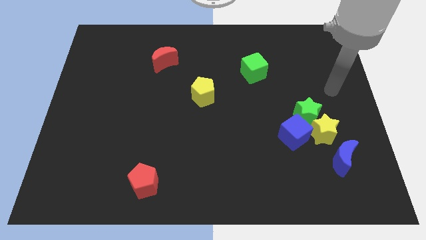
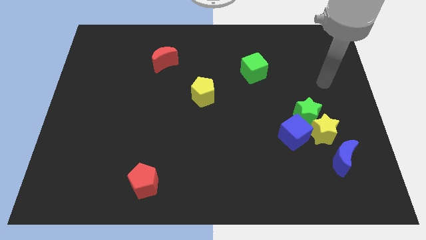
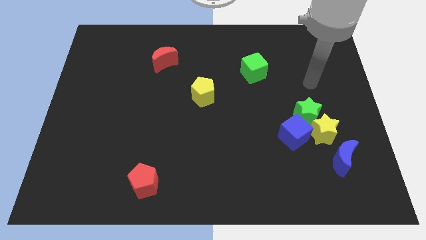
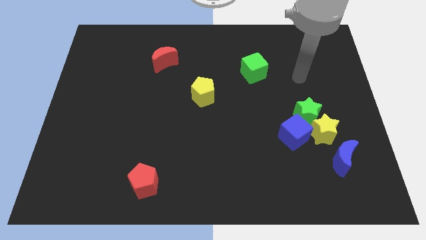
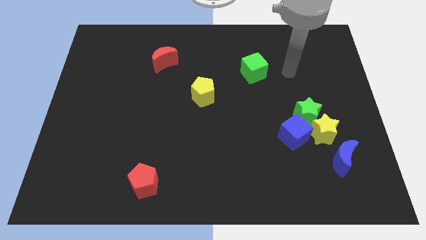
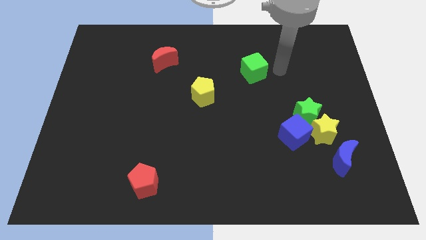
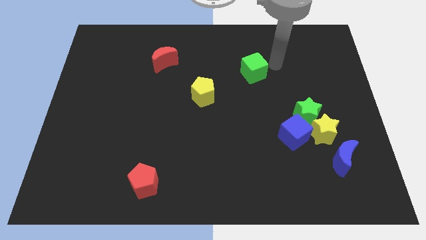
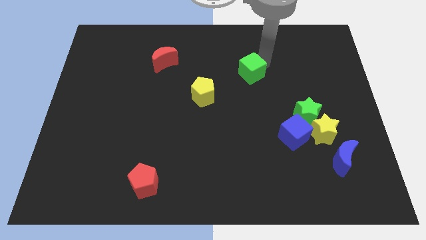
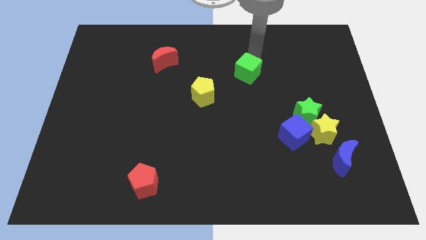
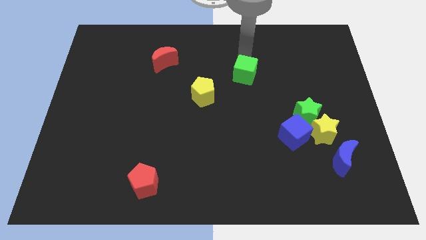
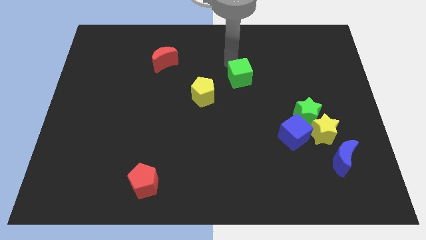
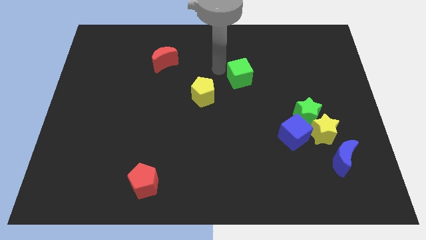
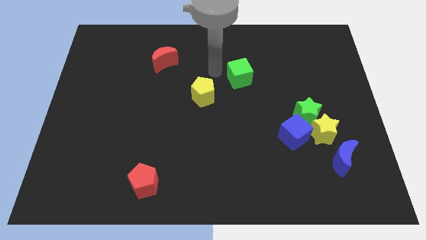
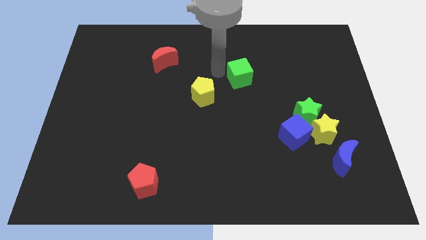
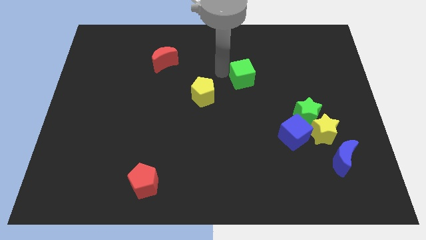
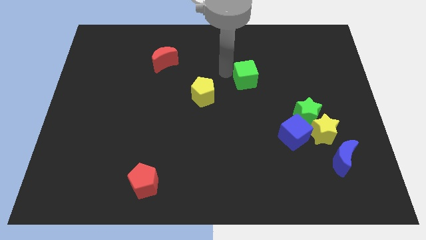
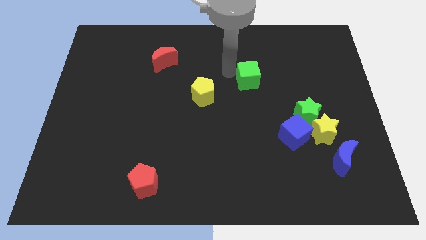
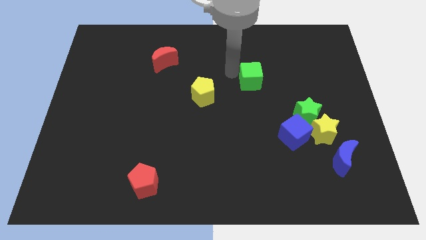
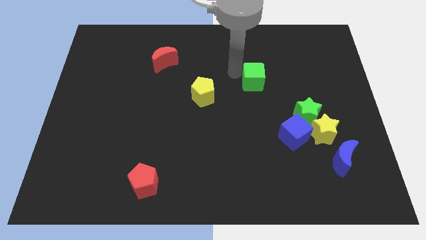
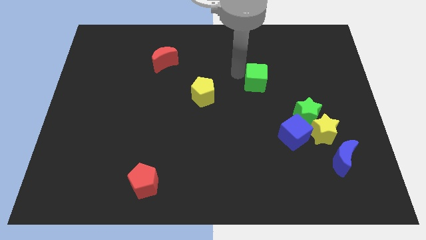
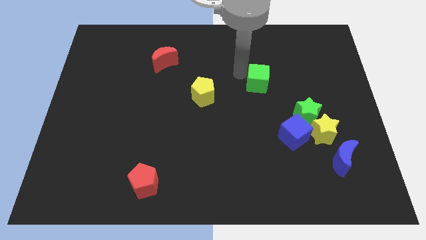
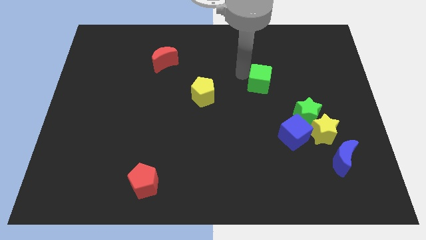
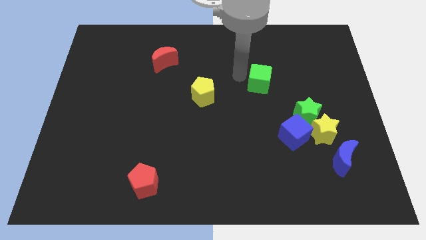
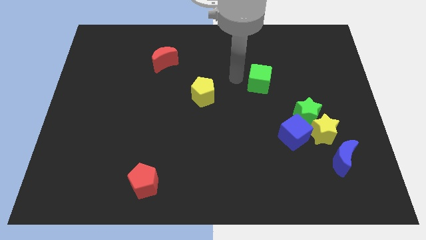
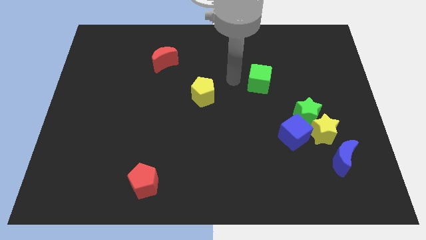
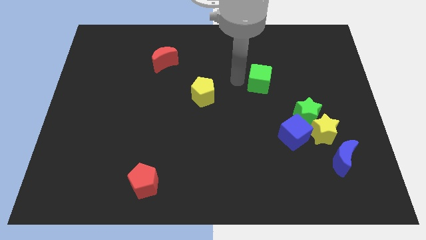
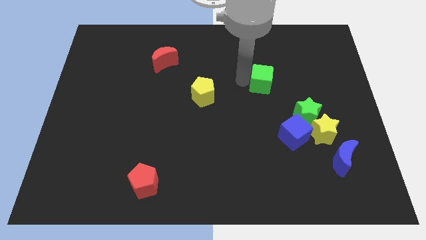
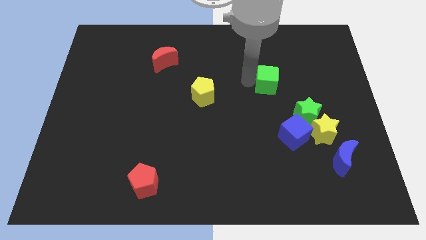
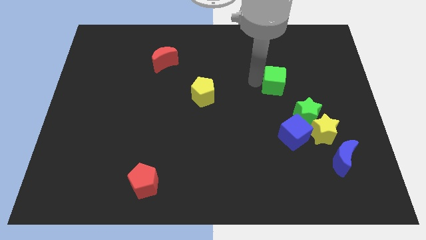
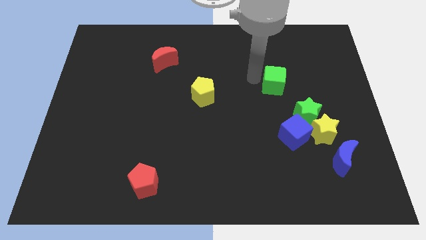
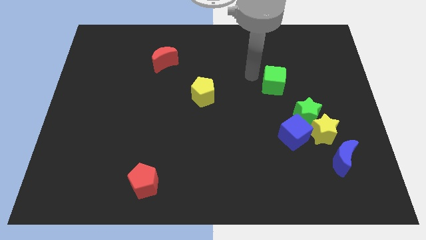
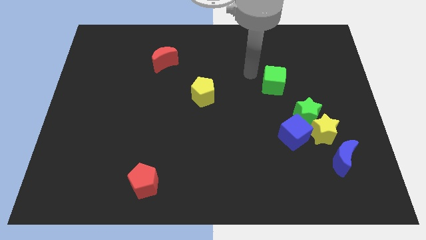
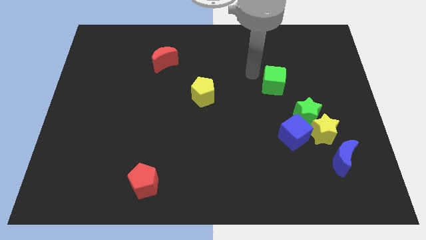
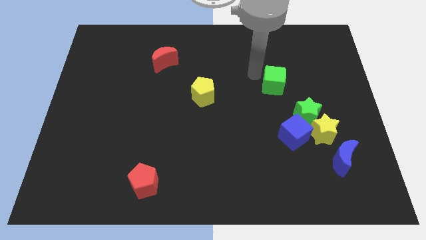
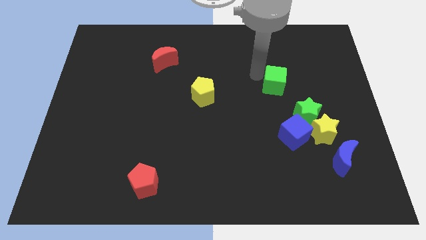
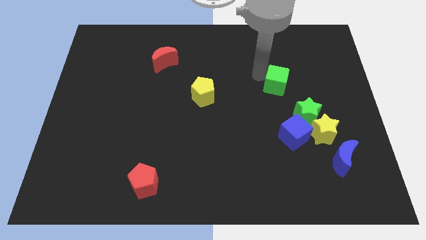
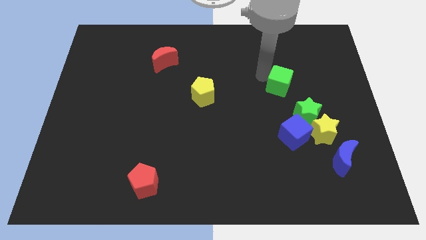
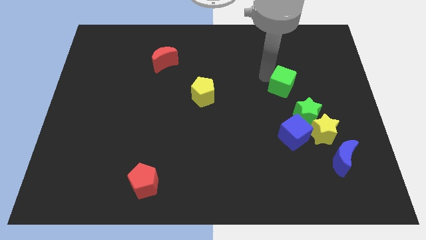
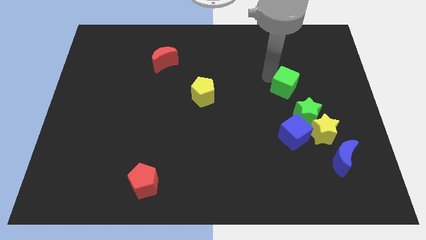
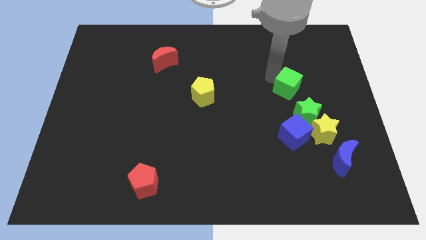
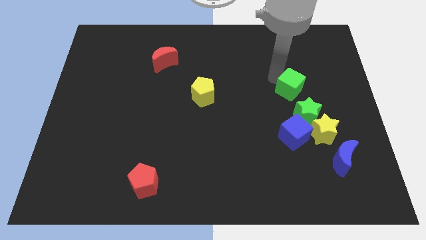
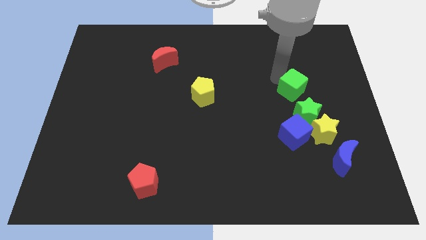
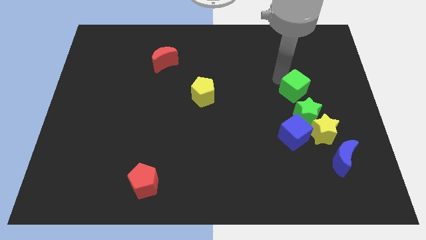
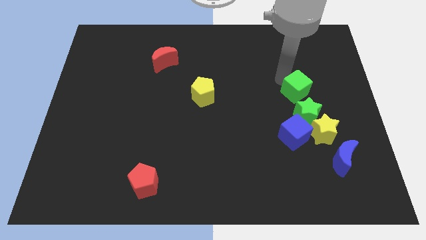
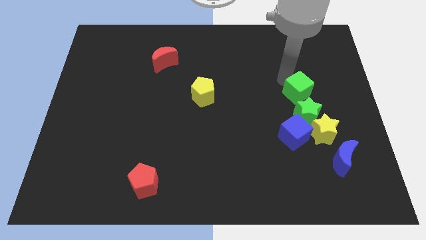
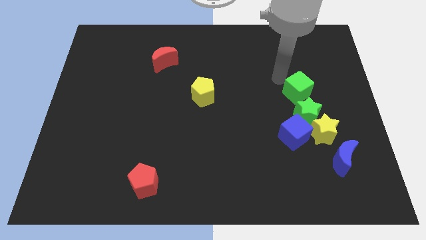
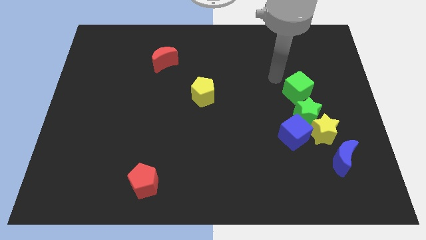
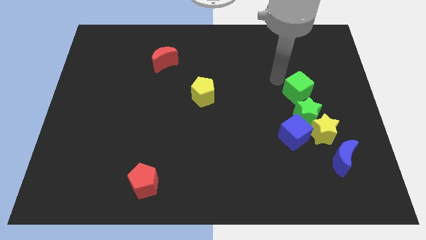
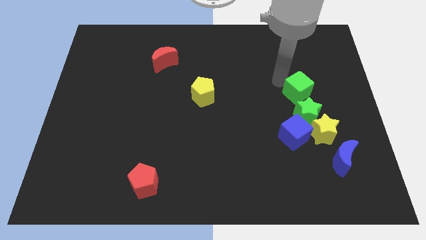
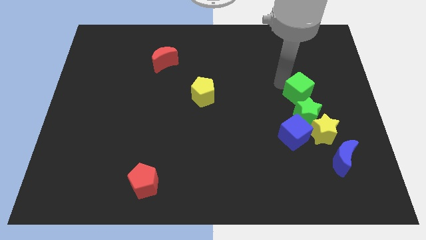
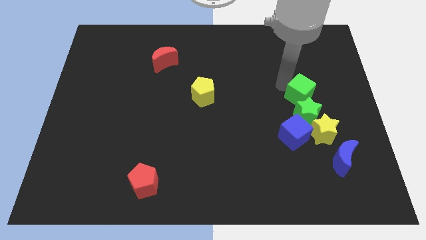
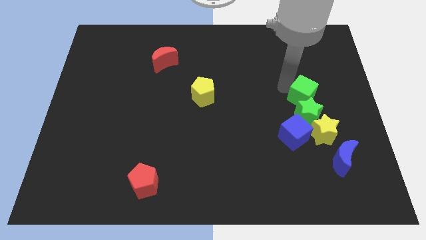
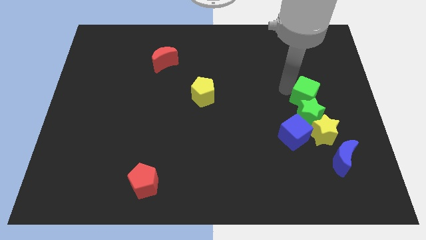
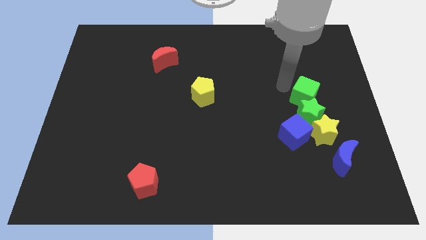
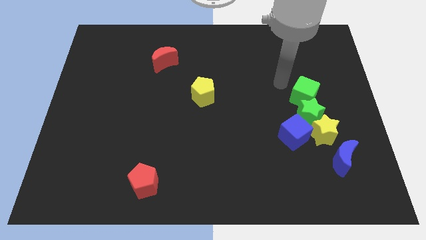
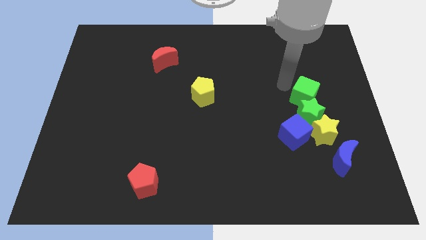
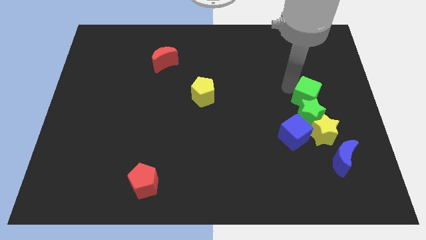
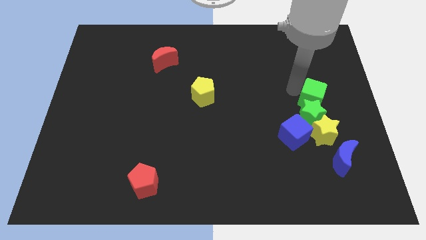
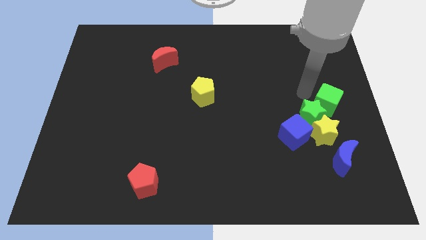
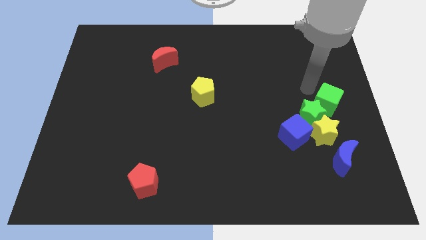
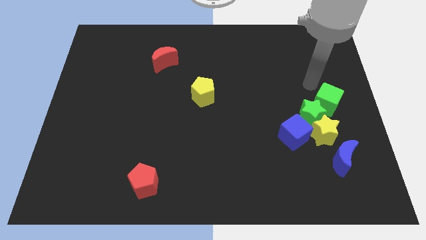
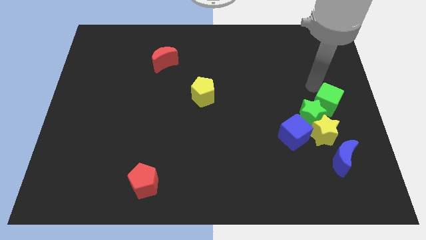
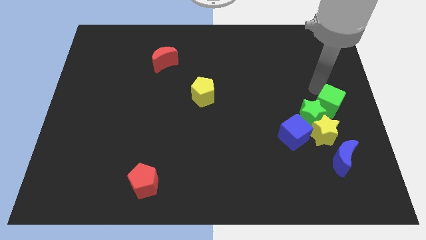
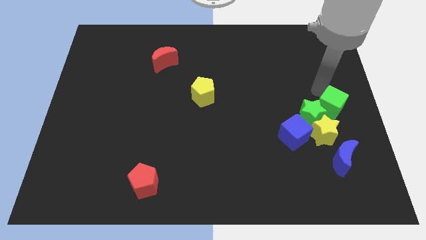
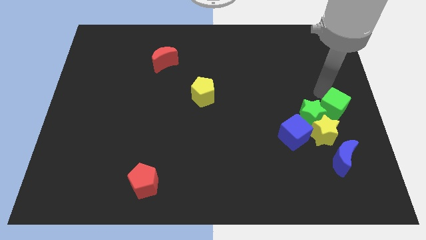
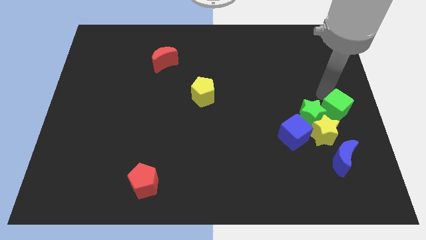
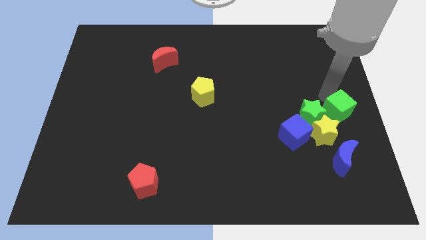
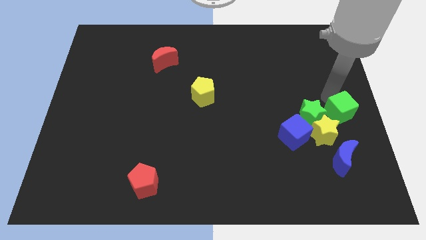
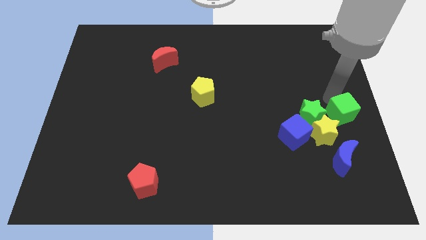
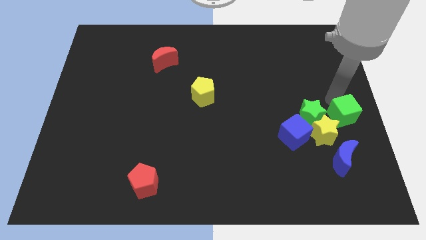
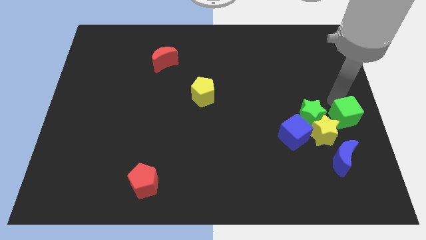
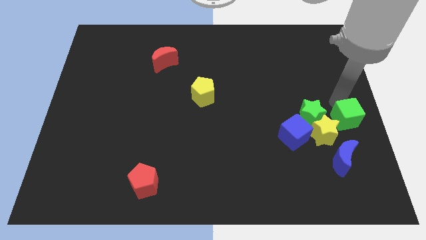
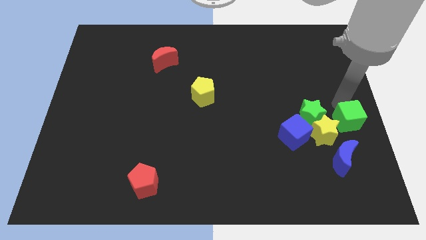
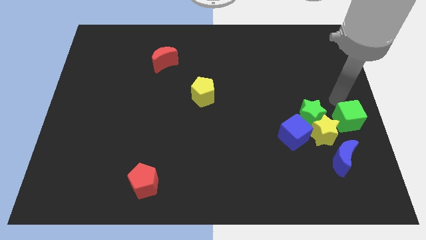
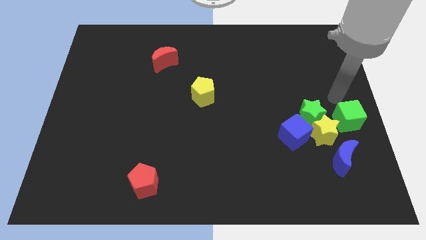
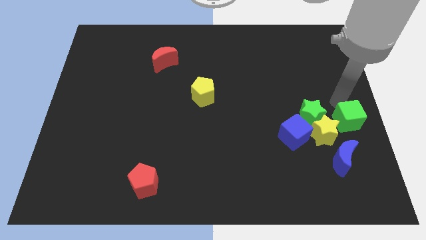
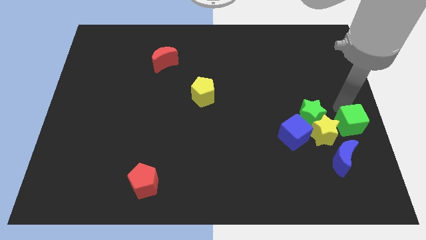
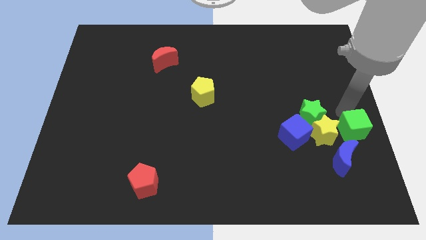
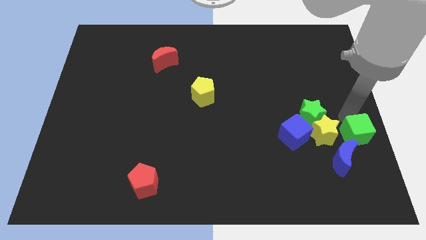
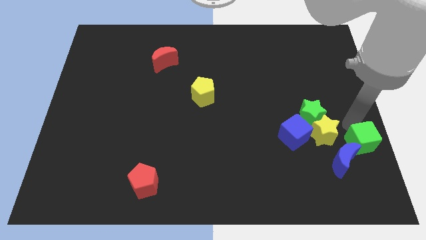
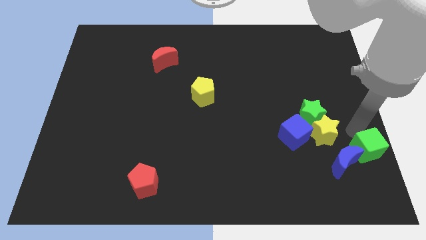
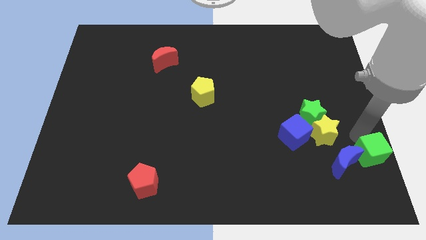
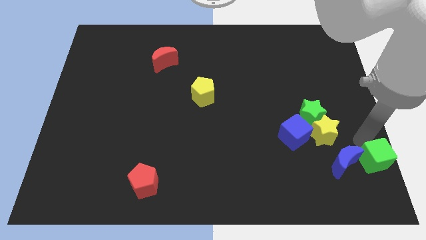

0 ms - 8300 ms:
push the green cube to the bottom right
